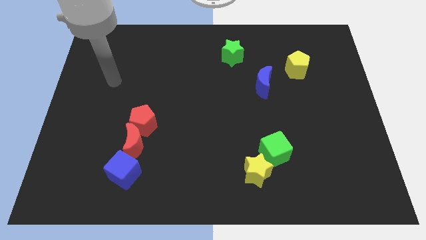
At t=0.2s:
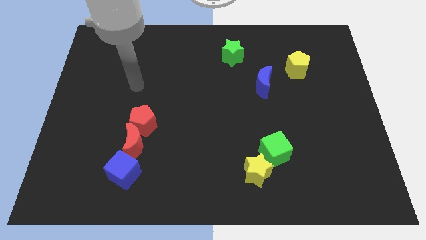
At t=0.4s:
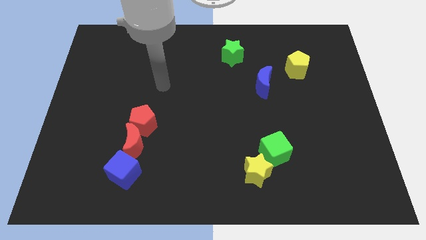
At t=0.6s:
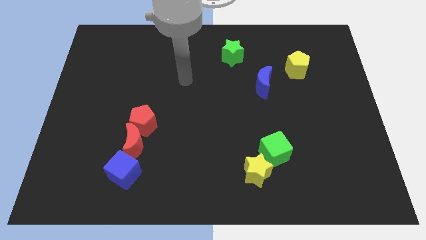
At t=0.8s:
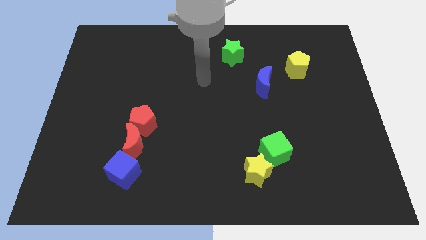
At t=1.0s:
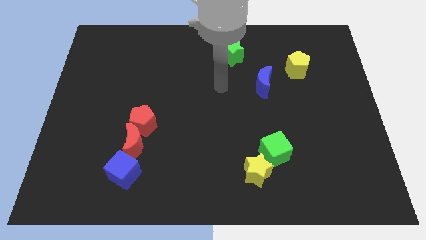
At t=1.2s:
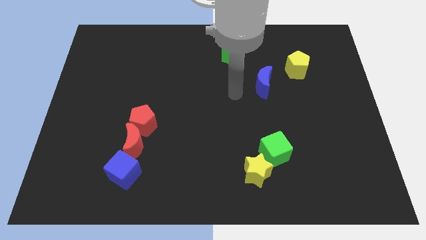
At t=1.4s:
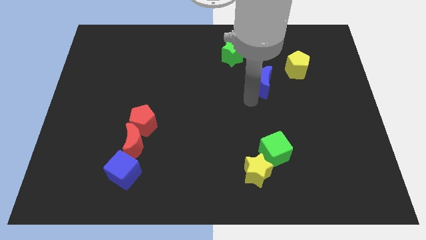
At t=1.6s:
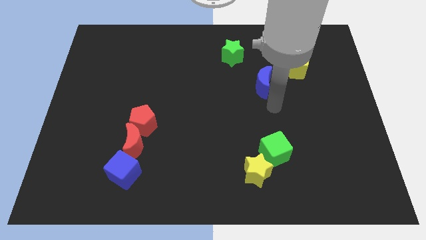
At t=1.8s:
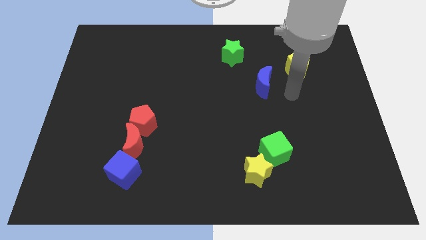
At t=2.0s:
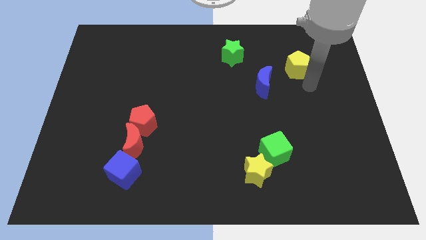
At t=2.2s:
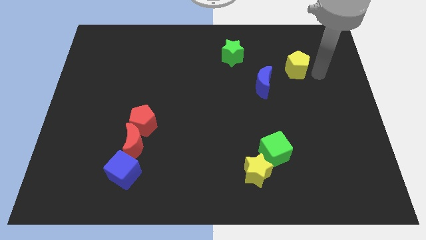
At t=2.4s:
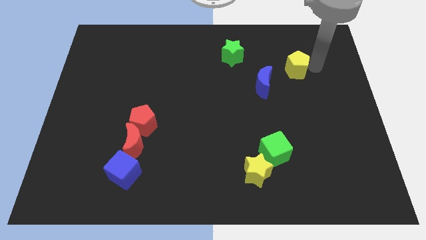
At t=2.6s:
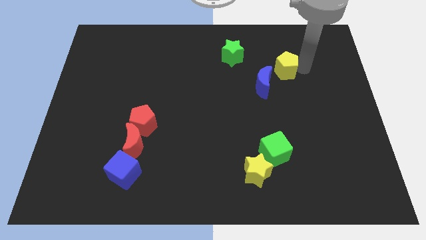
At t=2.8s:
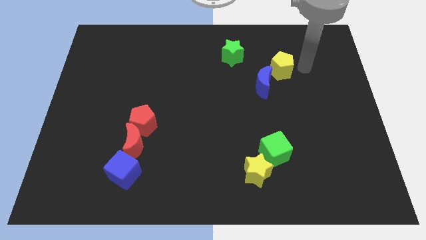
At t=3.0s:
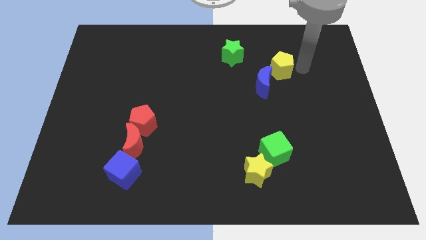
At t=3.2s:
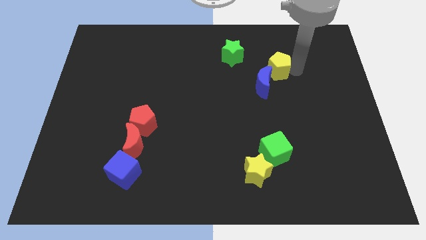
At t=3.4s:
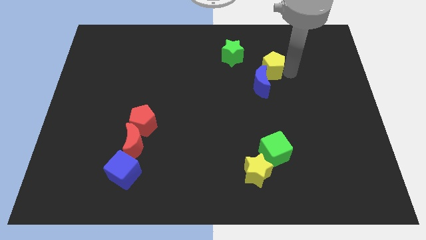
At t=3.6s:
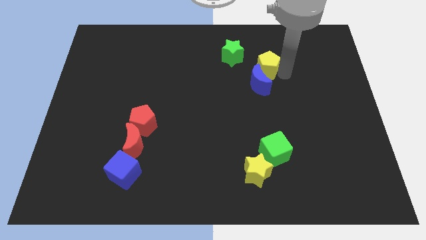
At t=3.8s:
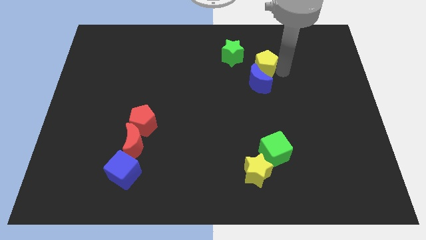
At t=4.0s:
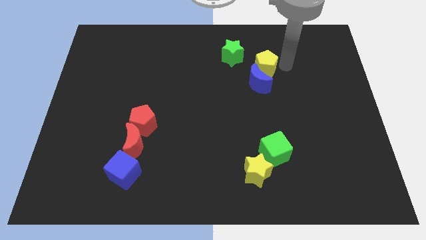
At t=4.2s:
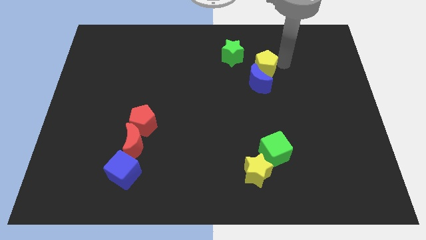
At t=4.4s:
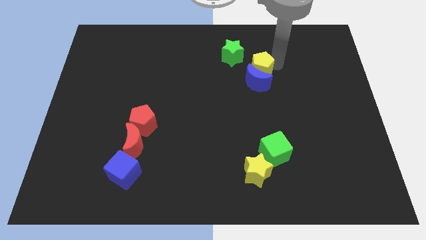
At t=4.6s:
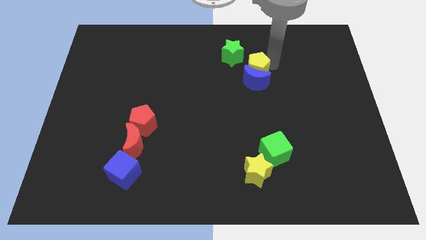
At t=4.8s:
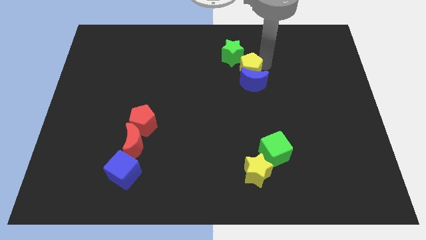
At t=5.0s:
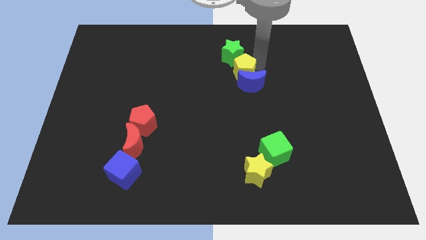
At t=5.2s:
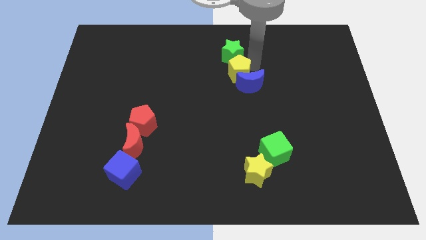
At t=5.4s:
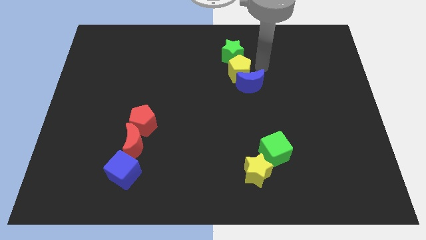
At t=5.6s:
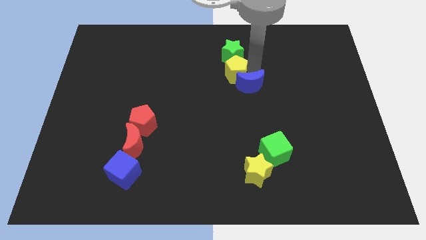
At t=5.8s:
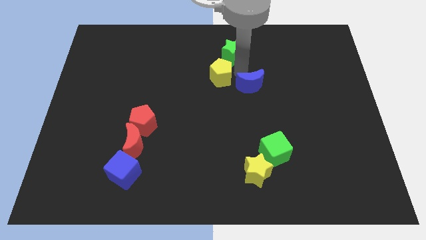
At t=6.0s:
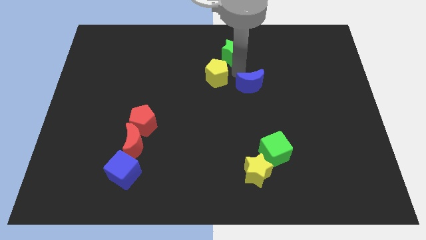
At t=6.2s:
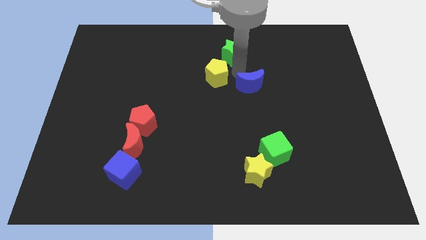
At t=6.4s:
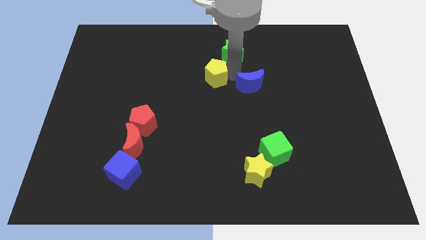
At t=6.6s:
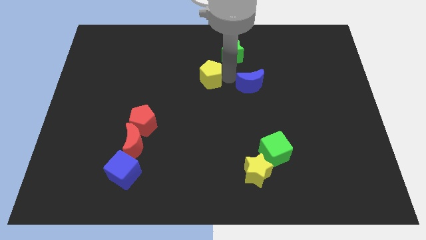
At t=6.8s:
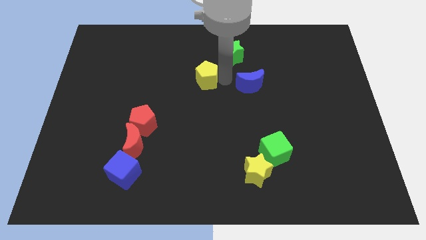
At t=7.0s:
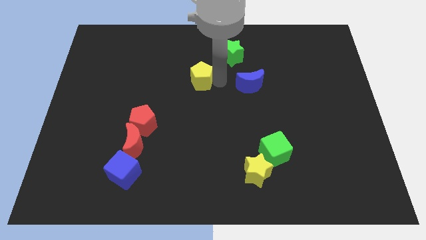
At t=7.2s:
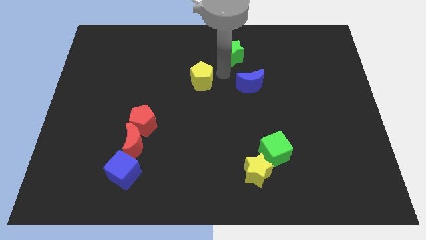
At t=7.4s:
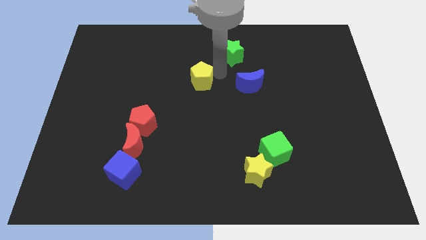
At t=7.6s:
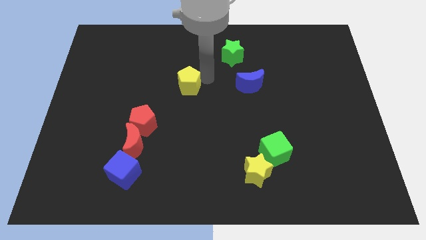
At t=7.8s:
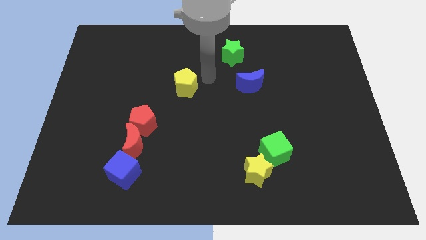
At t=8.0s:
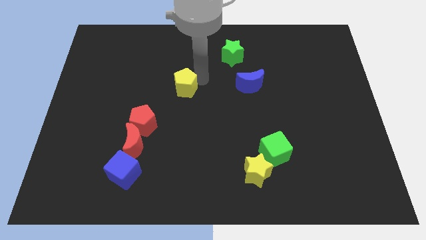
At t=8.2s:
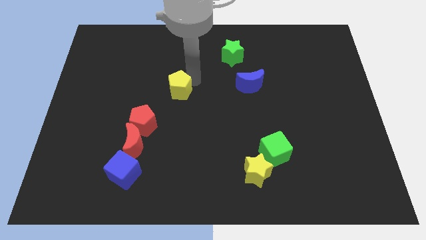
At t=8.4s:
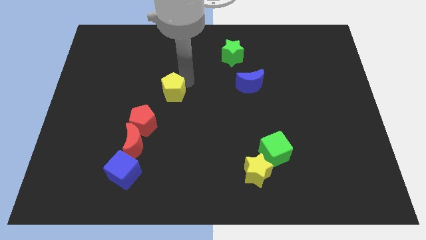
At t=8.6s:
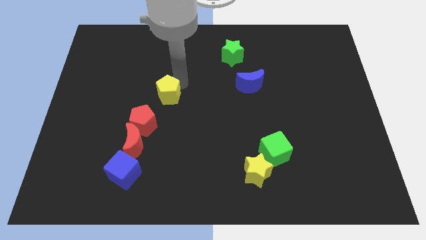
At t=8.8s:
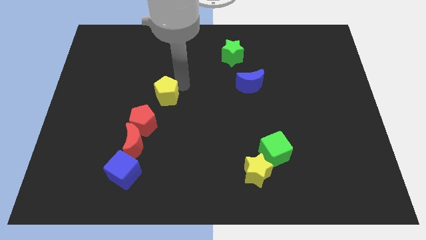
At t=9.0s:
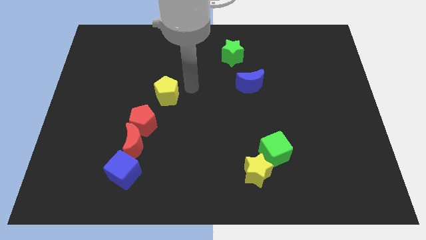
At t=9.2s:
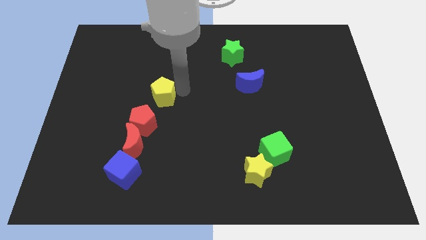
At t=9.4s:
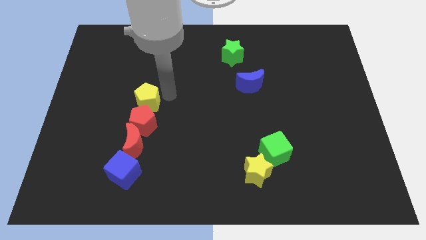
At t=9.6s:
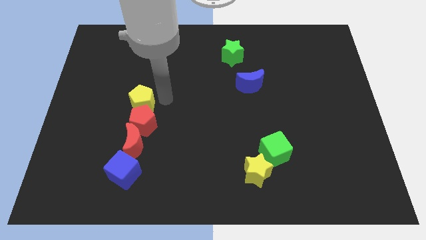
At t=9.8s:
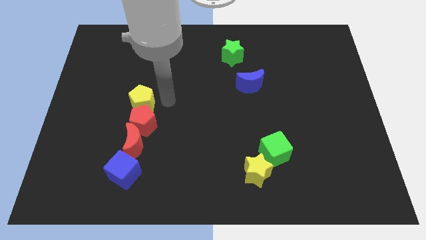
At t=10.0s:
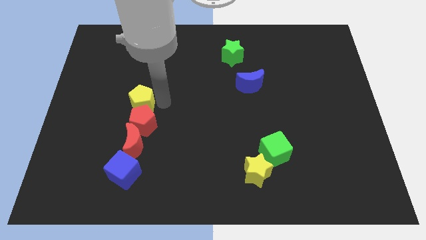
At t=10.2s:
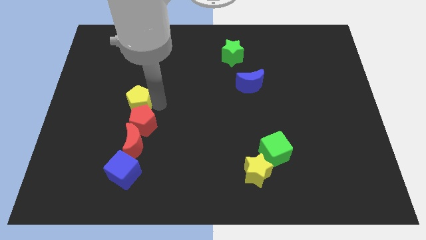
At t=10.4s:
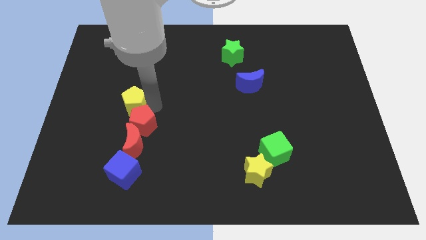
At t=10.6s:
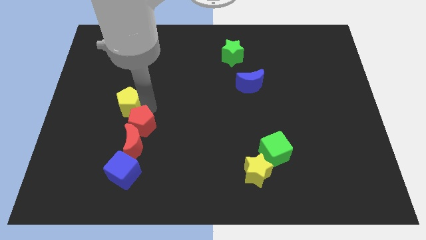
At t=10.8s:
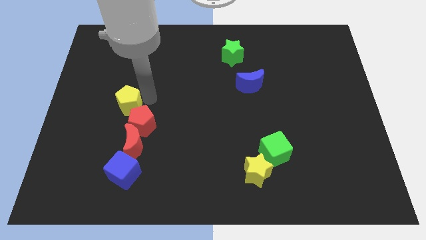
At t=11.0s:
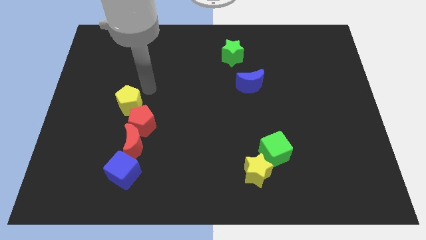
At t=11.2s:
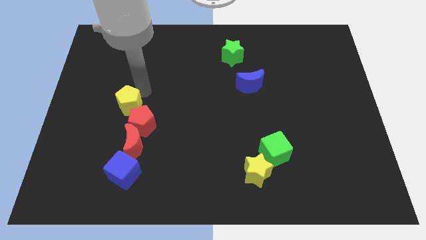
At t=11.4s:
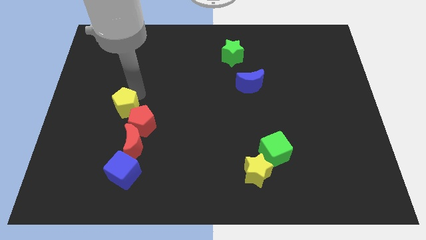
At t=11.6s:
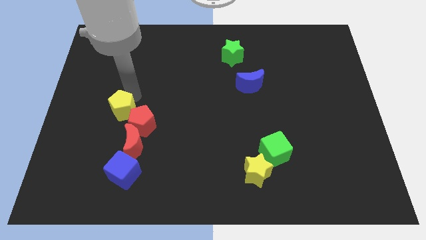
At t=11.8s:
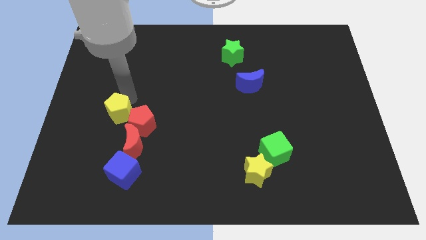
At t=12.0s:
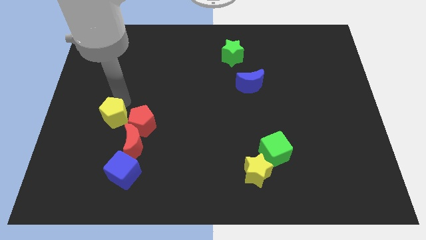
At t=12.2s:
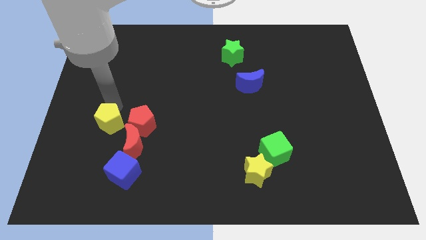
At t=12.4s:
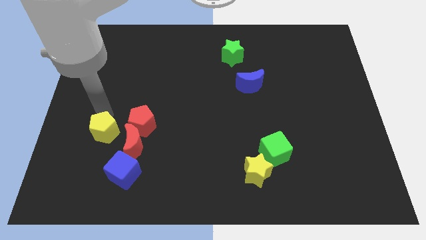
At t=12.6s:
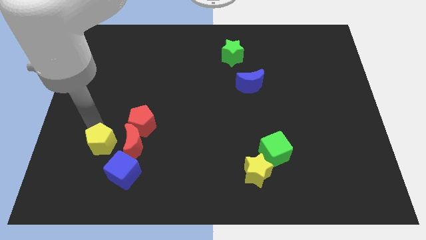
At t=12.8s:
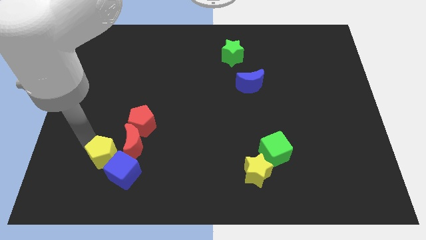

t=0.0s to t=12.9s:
push the yellow pentagon to the top side of the blue cube
